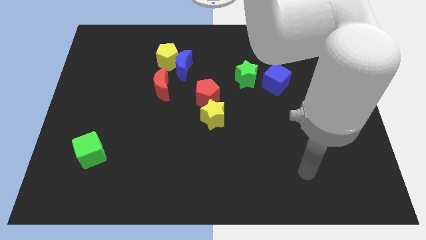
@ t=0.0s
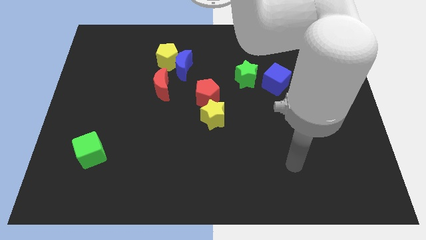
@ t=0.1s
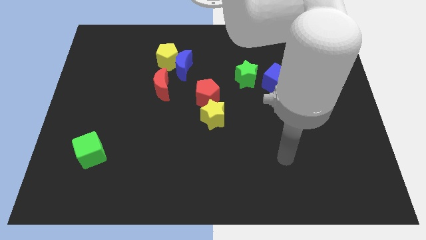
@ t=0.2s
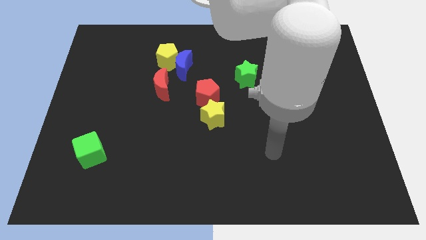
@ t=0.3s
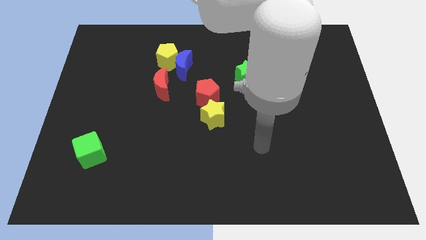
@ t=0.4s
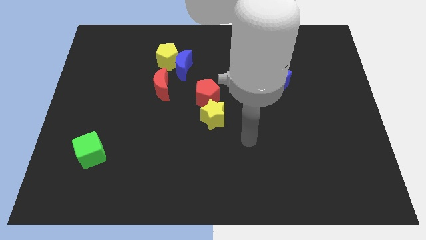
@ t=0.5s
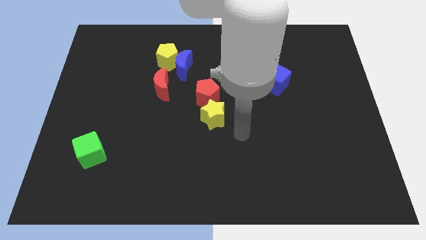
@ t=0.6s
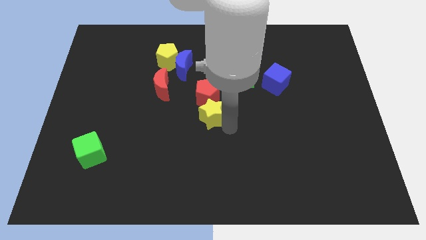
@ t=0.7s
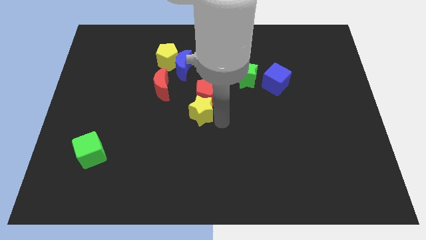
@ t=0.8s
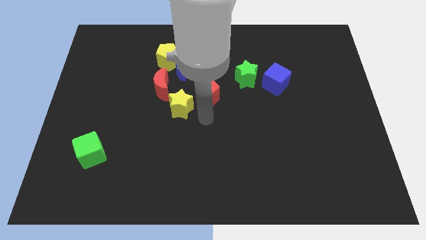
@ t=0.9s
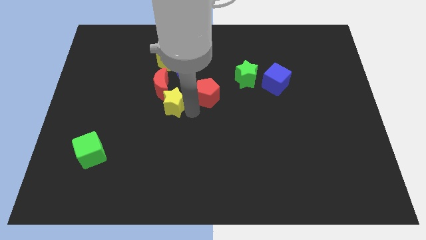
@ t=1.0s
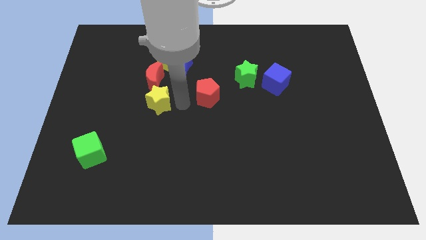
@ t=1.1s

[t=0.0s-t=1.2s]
move the red pentagon away from the yellow star

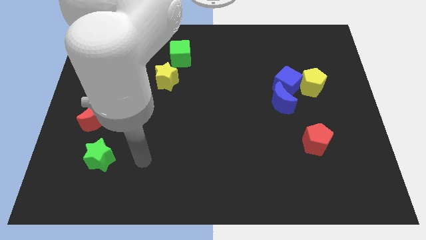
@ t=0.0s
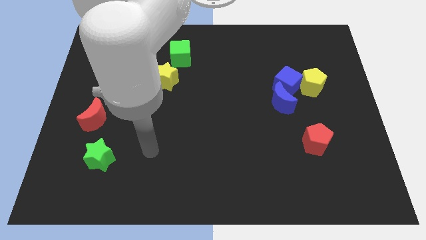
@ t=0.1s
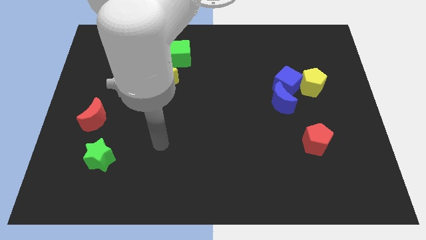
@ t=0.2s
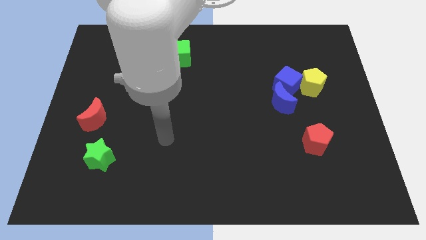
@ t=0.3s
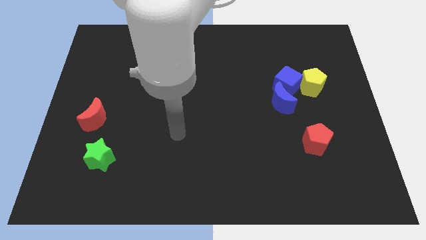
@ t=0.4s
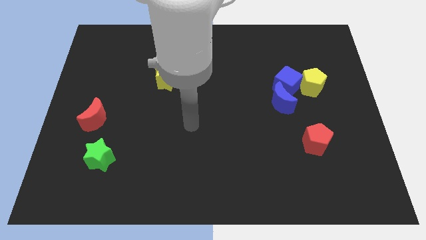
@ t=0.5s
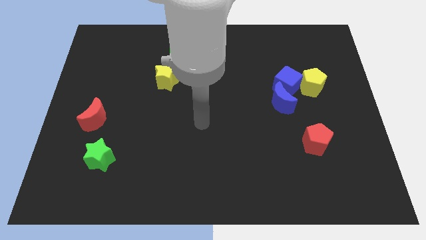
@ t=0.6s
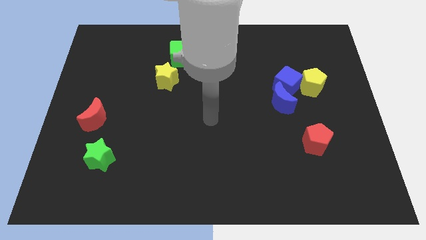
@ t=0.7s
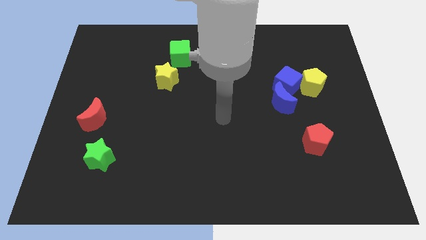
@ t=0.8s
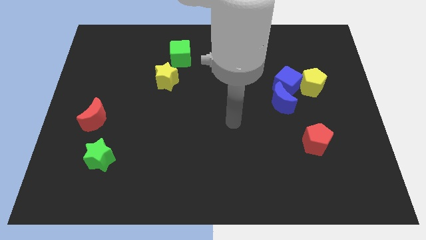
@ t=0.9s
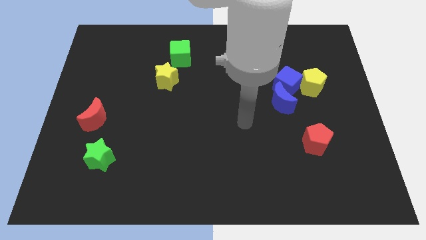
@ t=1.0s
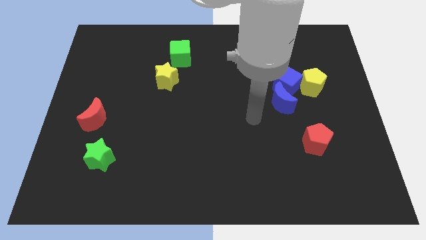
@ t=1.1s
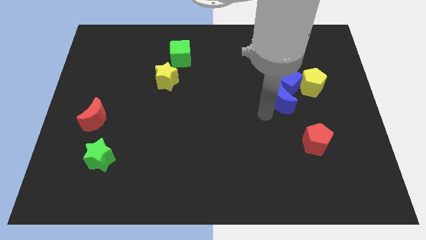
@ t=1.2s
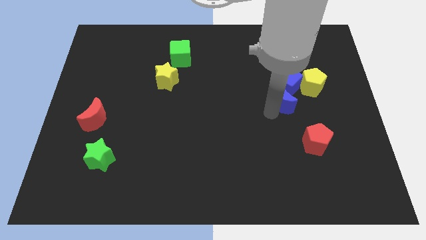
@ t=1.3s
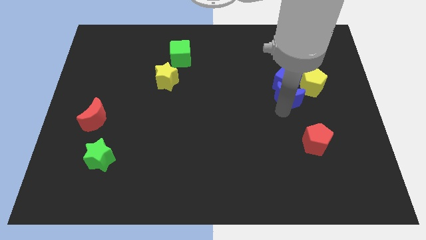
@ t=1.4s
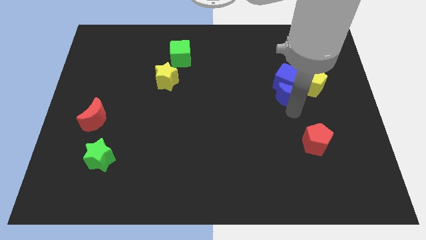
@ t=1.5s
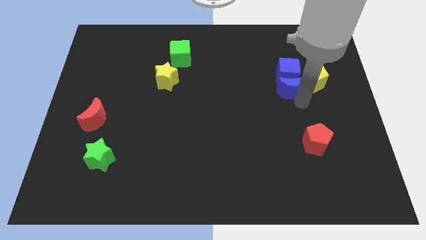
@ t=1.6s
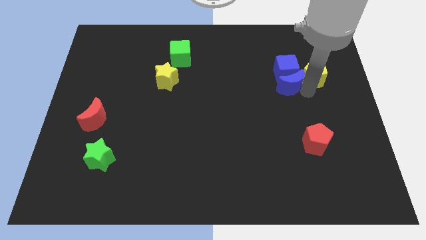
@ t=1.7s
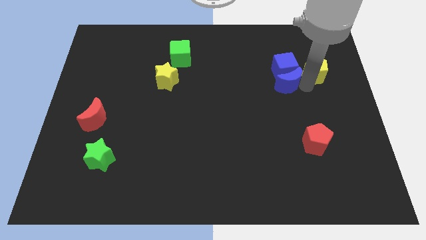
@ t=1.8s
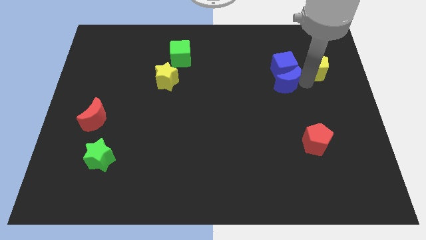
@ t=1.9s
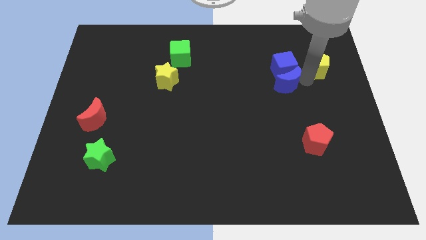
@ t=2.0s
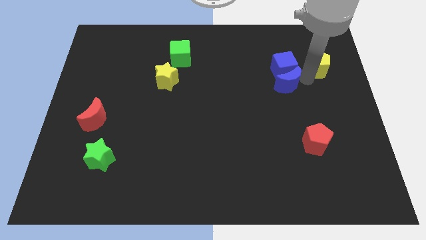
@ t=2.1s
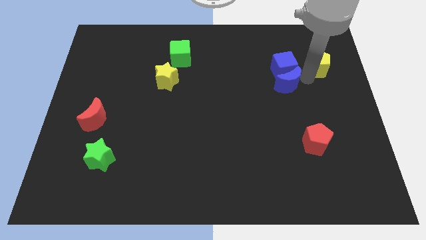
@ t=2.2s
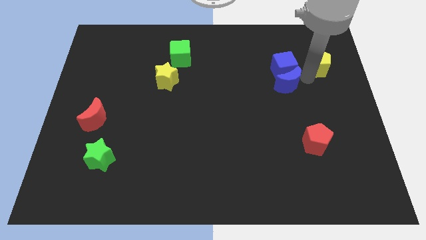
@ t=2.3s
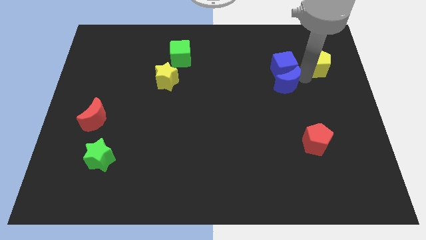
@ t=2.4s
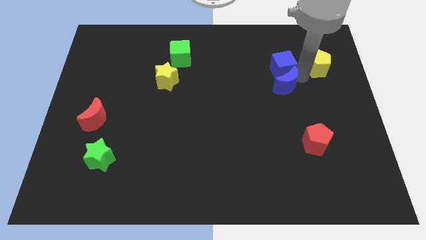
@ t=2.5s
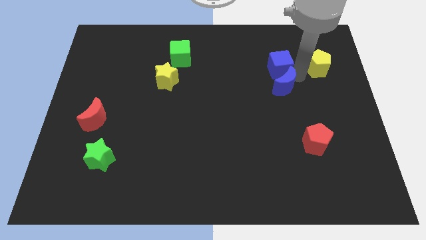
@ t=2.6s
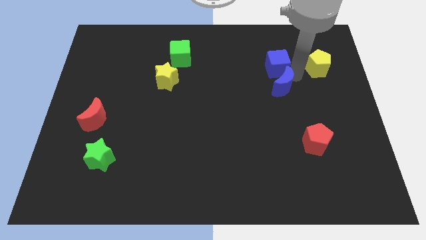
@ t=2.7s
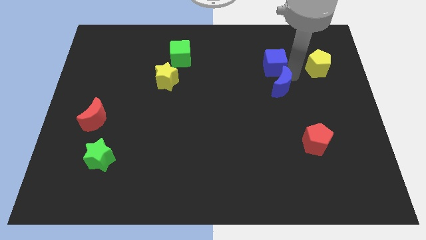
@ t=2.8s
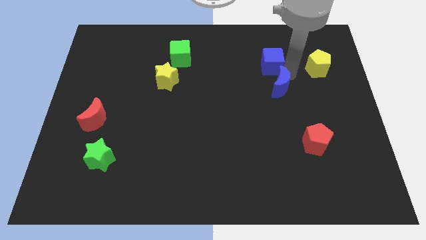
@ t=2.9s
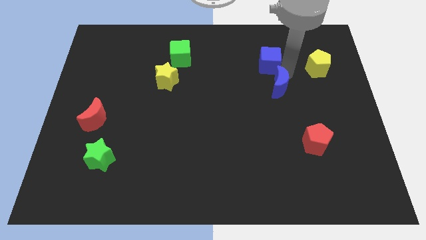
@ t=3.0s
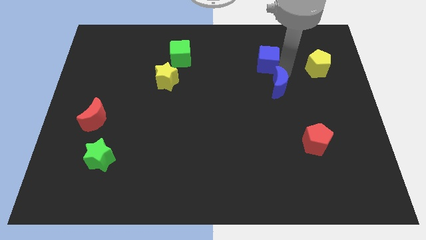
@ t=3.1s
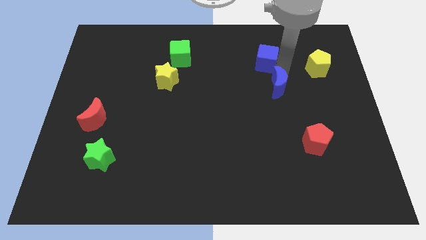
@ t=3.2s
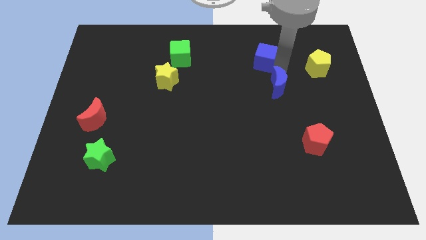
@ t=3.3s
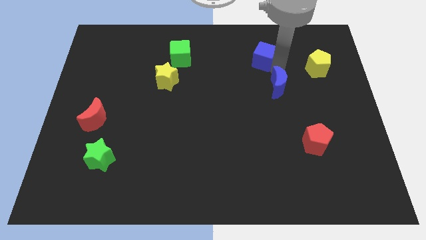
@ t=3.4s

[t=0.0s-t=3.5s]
move the blue cube away from the blue moon and yellow pentagon

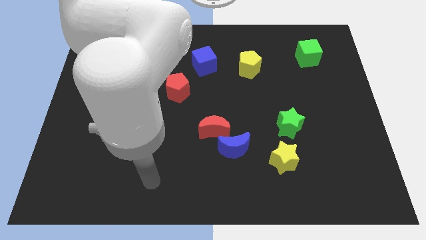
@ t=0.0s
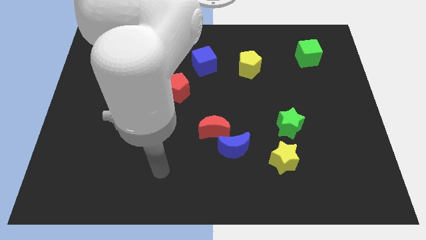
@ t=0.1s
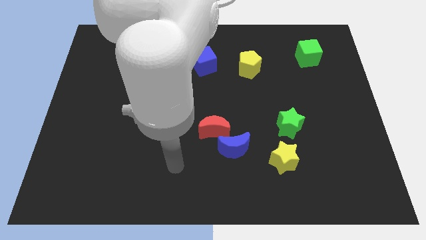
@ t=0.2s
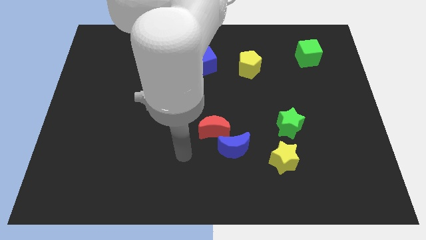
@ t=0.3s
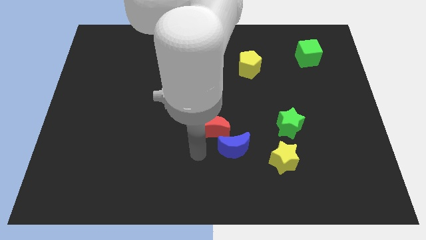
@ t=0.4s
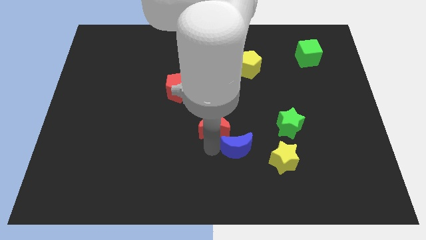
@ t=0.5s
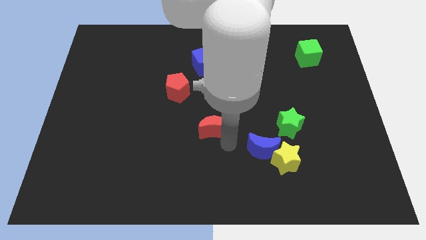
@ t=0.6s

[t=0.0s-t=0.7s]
separate the red moon from the blue moon

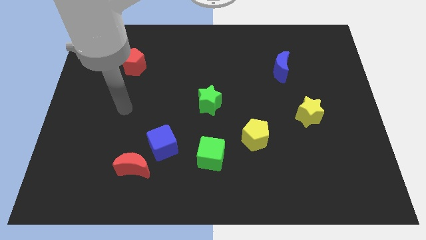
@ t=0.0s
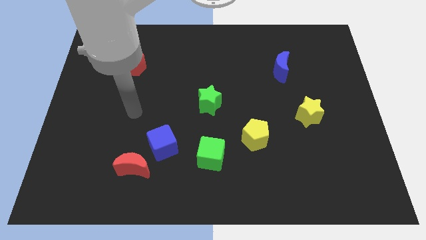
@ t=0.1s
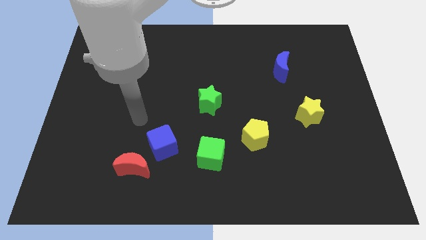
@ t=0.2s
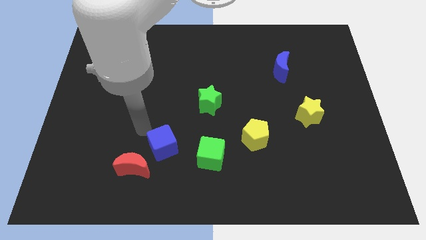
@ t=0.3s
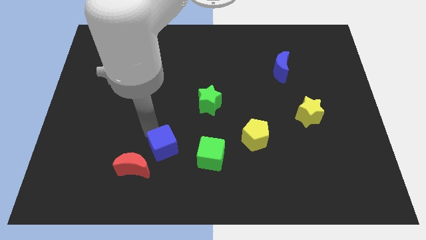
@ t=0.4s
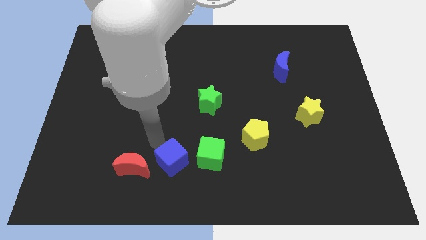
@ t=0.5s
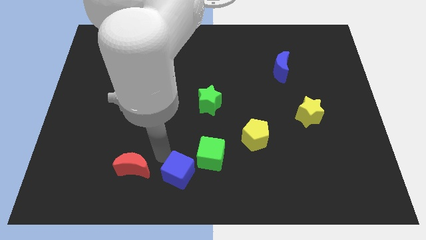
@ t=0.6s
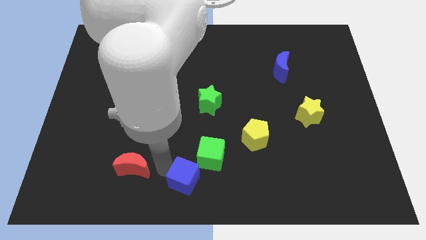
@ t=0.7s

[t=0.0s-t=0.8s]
separate the red moon from the blue cube

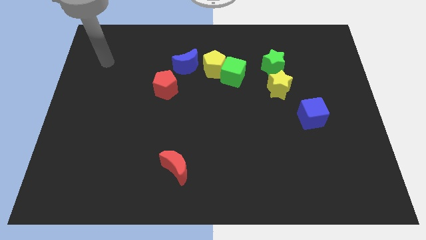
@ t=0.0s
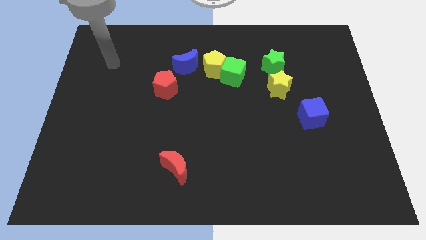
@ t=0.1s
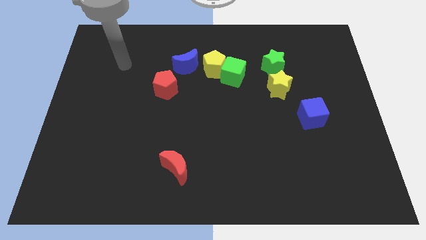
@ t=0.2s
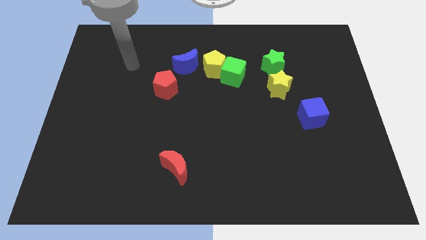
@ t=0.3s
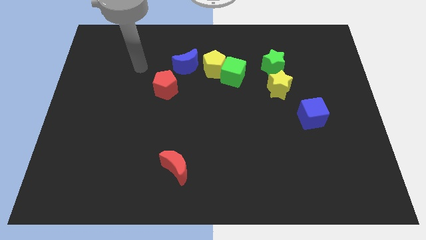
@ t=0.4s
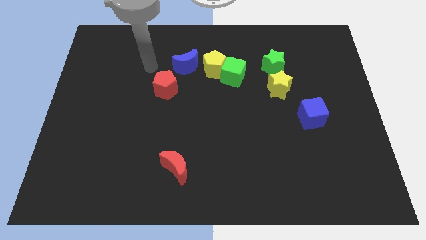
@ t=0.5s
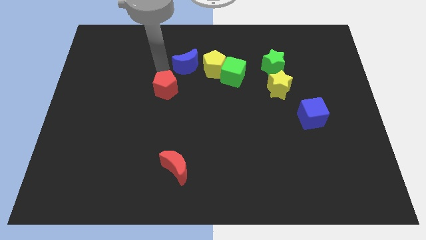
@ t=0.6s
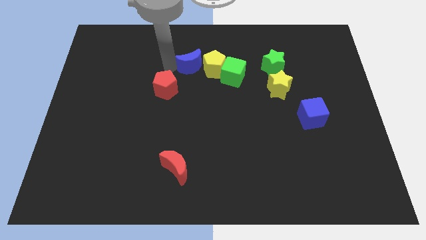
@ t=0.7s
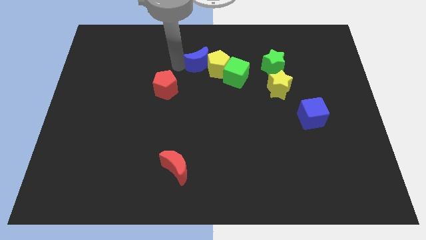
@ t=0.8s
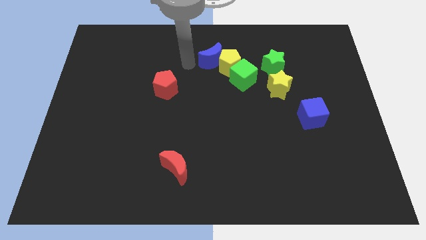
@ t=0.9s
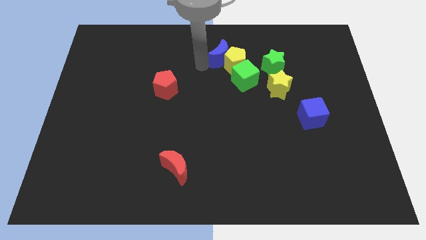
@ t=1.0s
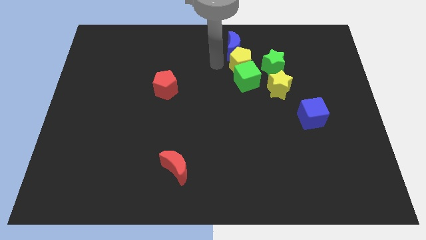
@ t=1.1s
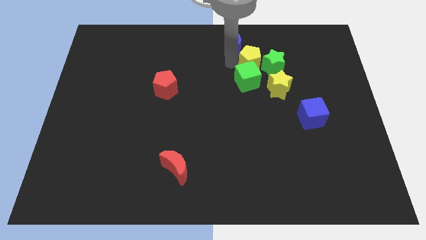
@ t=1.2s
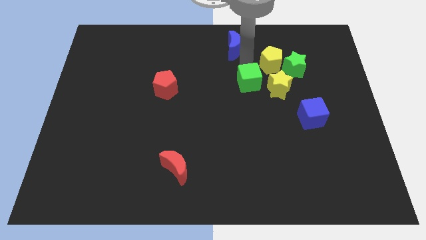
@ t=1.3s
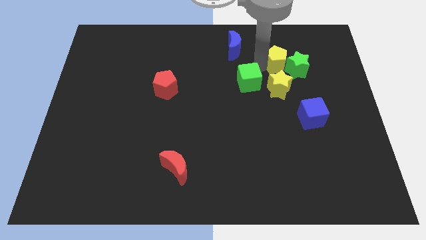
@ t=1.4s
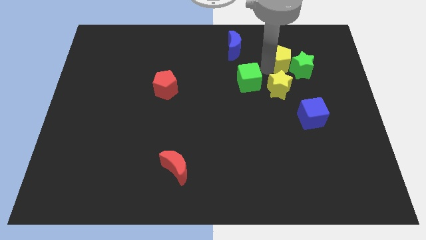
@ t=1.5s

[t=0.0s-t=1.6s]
pull the green cube apart from the yellow pentagon

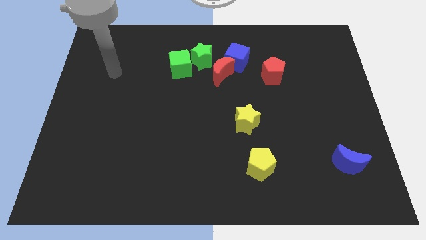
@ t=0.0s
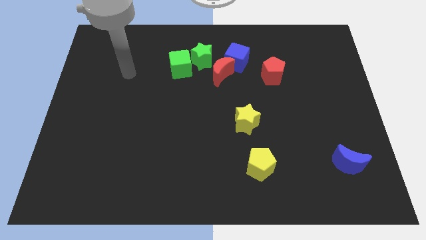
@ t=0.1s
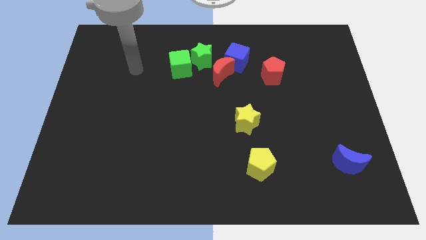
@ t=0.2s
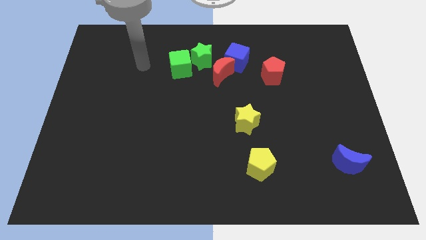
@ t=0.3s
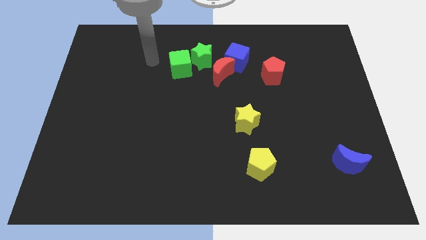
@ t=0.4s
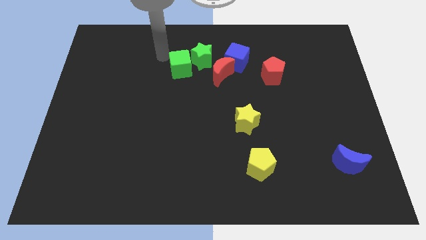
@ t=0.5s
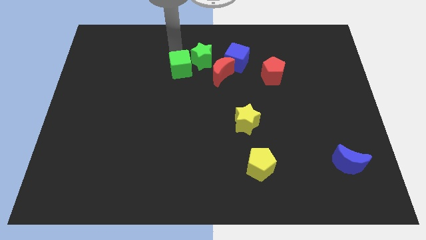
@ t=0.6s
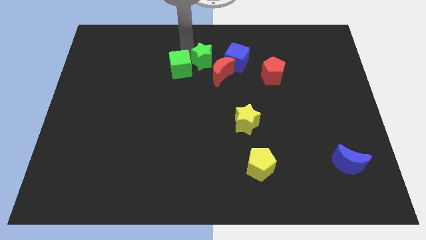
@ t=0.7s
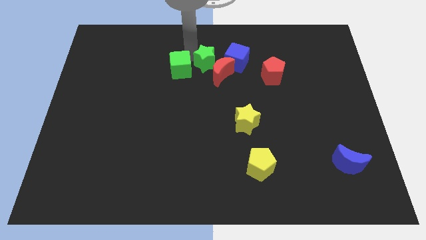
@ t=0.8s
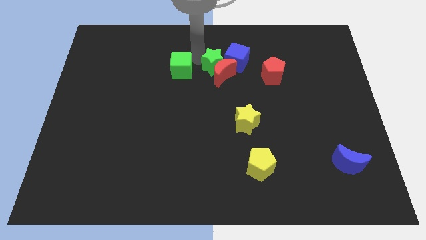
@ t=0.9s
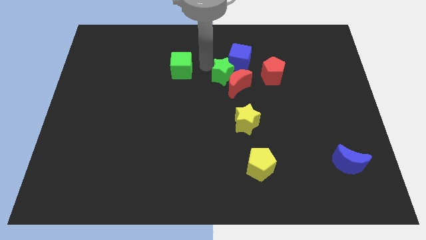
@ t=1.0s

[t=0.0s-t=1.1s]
pull the green cube apart from the green star

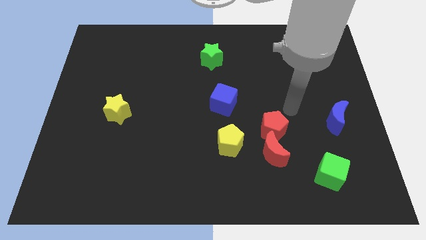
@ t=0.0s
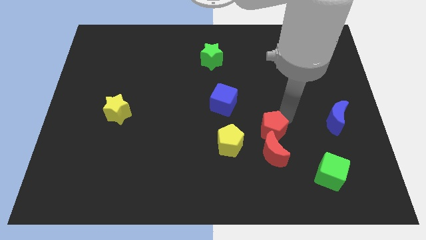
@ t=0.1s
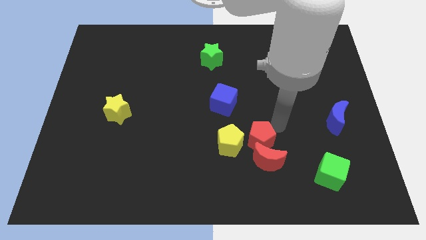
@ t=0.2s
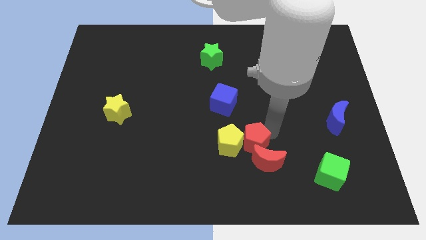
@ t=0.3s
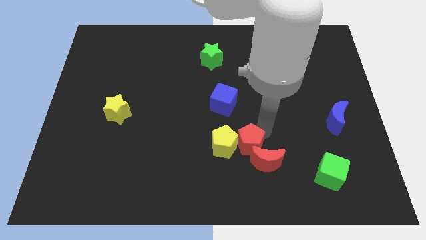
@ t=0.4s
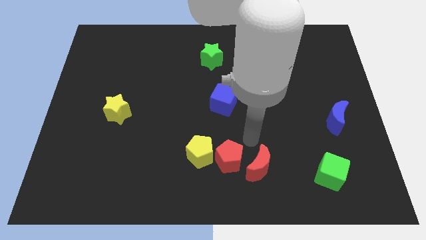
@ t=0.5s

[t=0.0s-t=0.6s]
separate the red moon from the red pentagon and yellow pentagon
